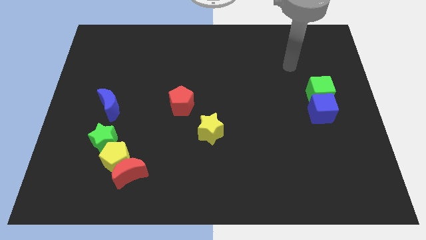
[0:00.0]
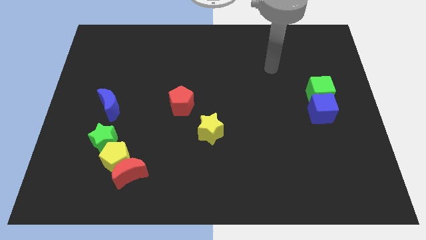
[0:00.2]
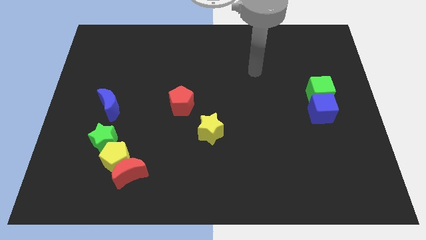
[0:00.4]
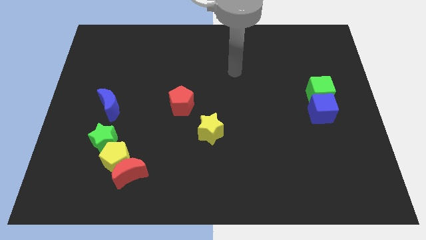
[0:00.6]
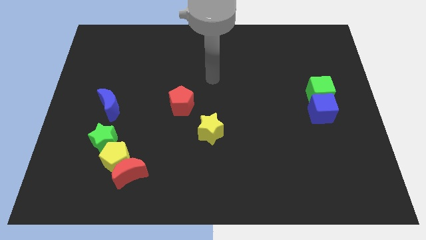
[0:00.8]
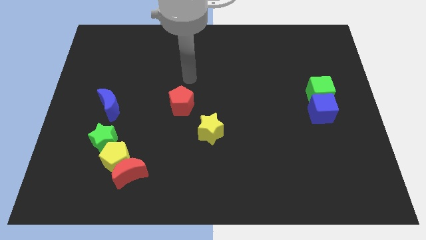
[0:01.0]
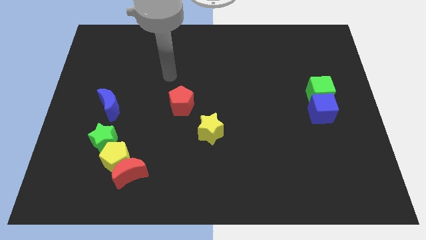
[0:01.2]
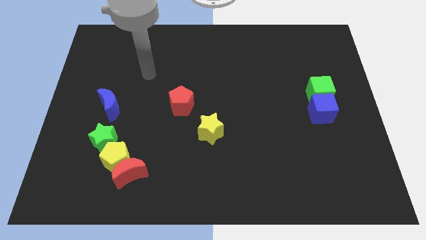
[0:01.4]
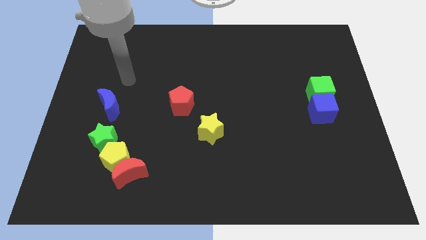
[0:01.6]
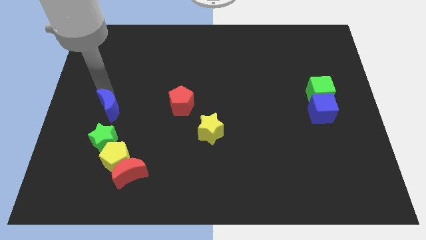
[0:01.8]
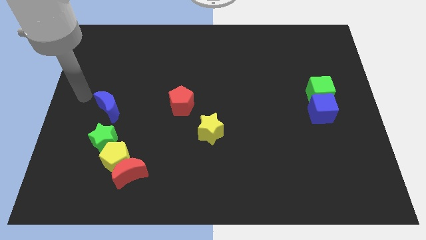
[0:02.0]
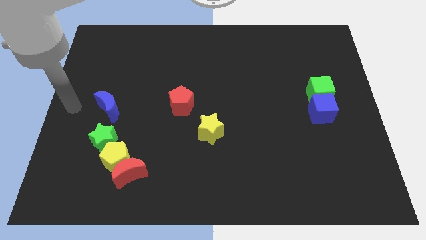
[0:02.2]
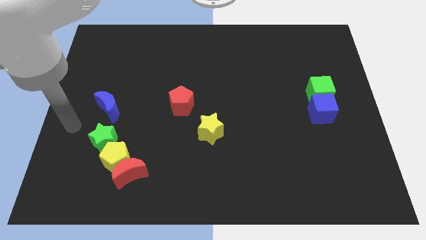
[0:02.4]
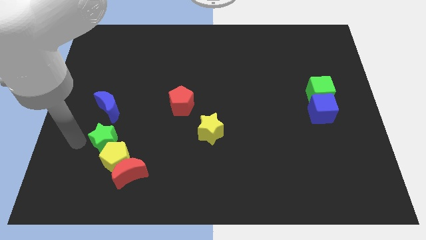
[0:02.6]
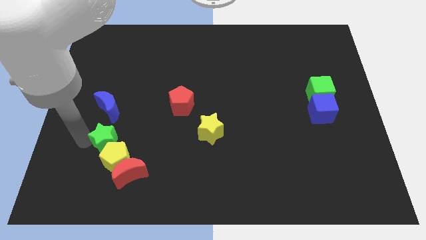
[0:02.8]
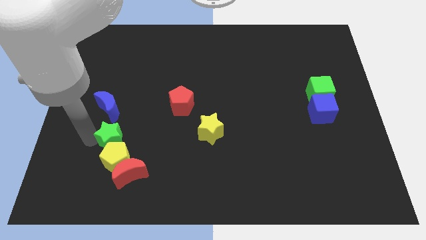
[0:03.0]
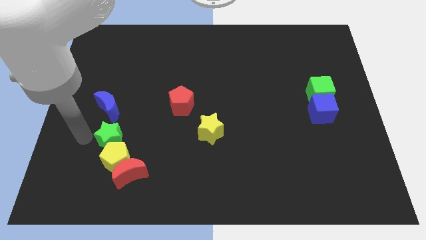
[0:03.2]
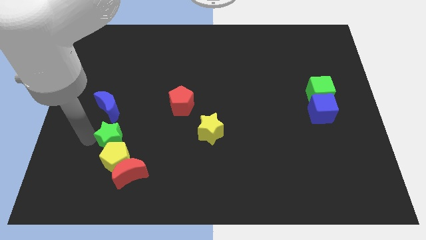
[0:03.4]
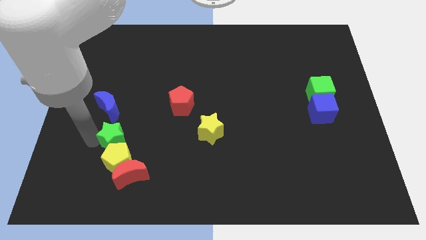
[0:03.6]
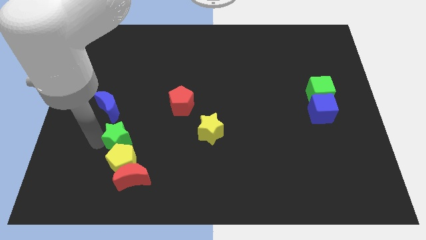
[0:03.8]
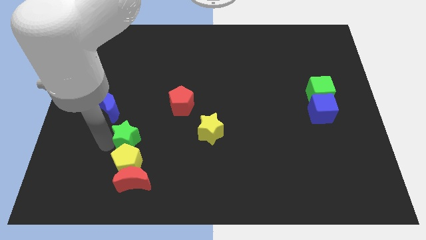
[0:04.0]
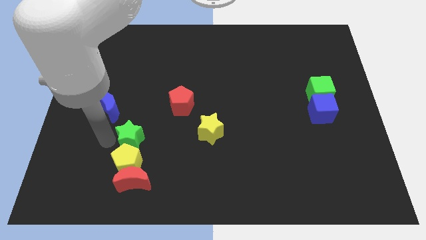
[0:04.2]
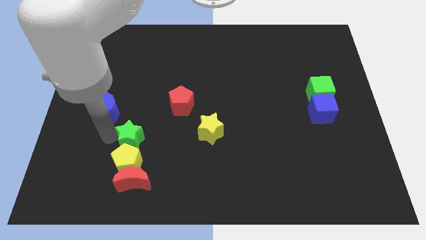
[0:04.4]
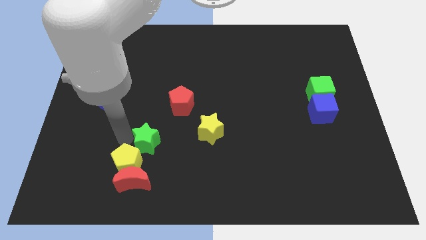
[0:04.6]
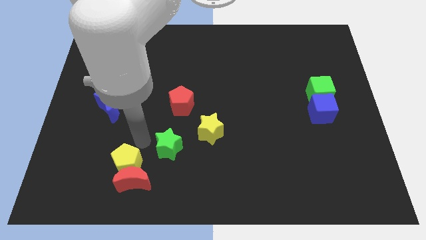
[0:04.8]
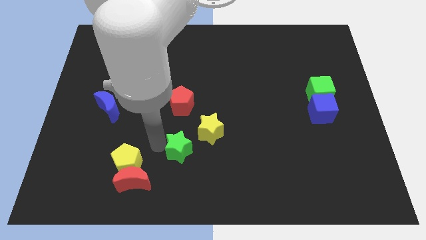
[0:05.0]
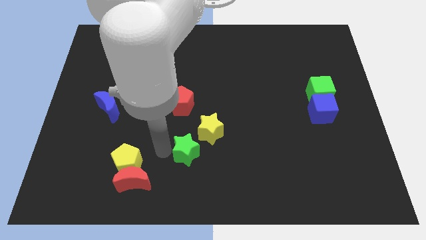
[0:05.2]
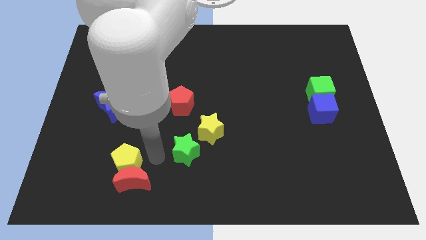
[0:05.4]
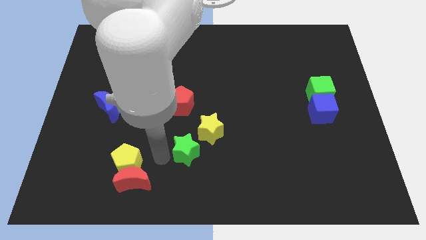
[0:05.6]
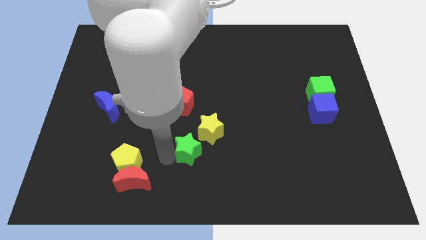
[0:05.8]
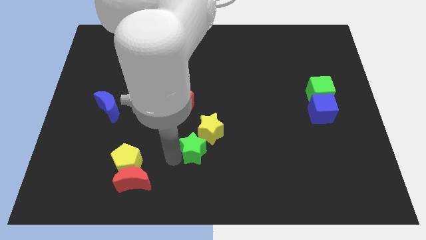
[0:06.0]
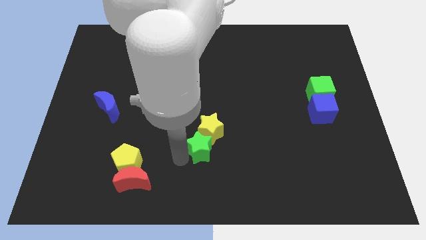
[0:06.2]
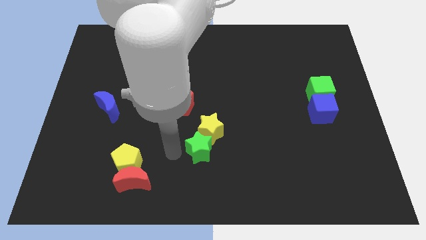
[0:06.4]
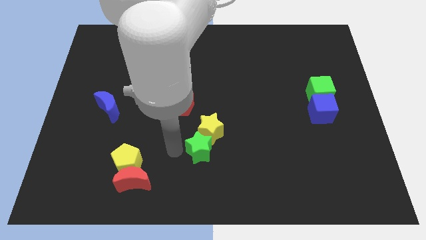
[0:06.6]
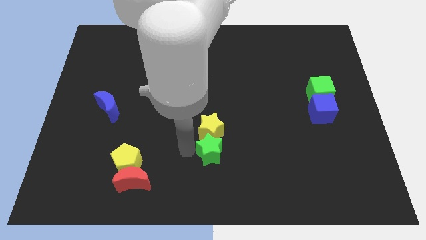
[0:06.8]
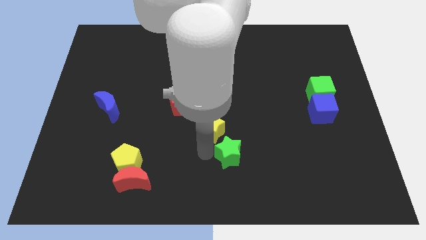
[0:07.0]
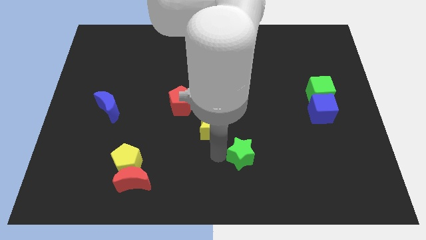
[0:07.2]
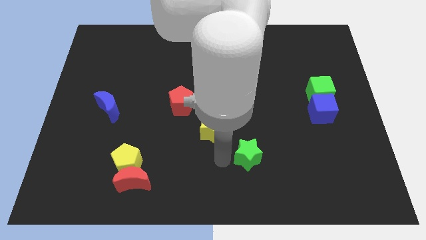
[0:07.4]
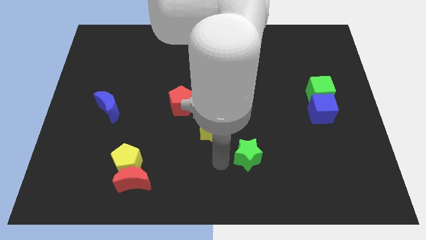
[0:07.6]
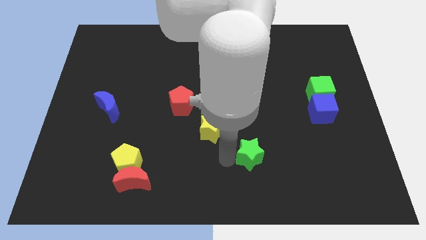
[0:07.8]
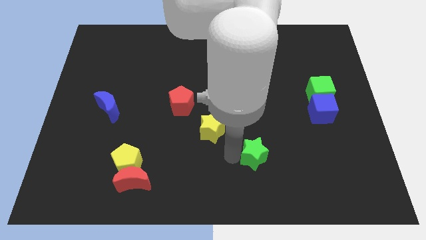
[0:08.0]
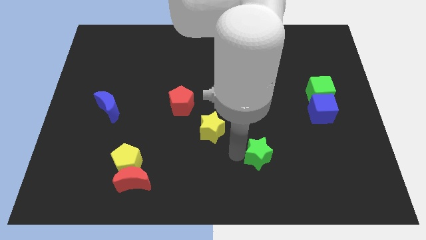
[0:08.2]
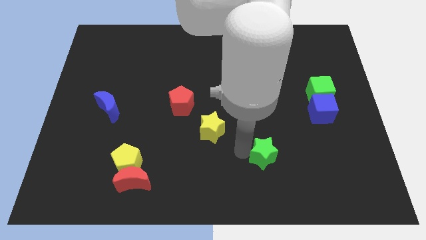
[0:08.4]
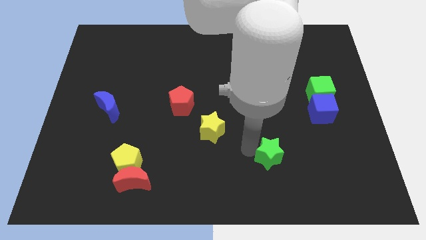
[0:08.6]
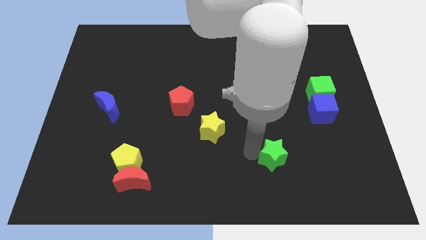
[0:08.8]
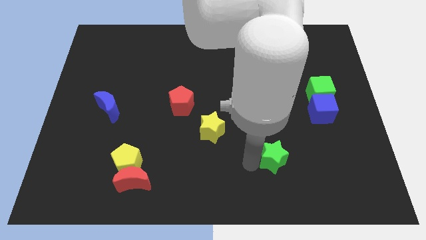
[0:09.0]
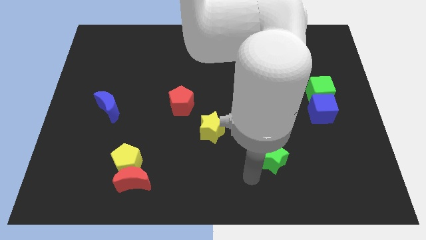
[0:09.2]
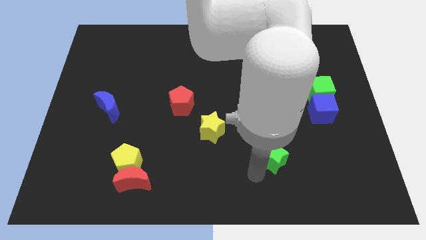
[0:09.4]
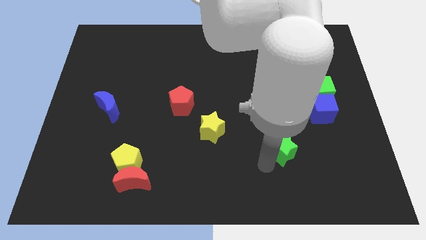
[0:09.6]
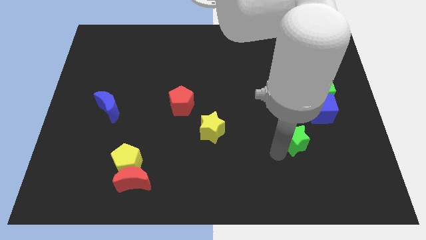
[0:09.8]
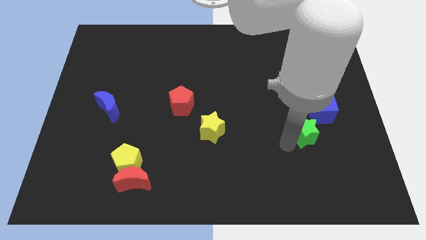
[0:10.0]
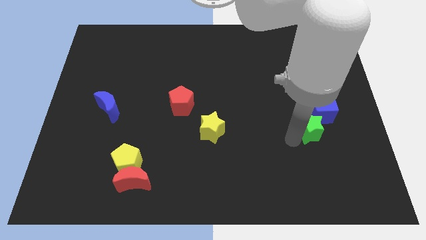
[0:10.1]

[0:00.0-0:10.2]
slide the green star to the bottom side of the green cube

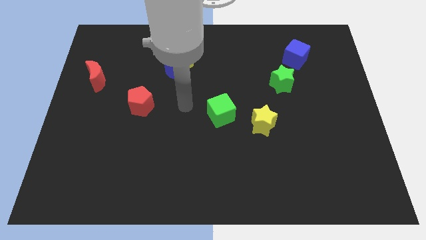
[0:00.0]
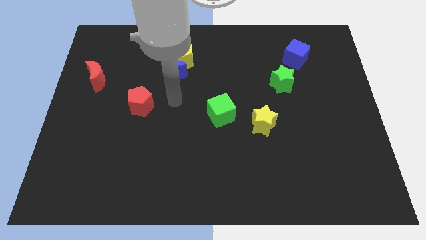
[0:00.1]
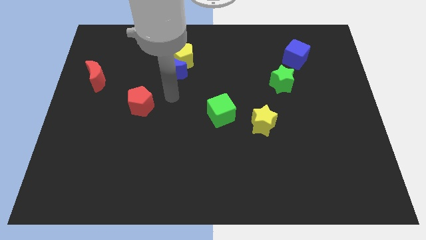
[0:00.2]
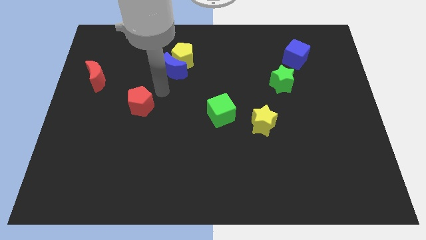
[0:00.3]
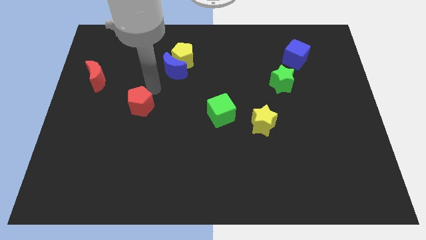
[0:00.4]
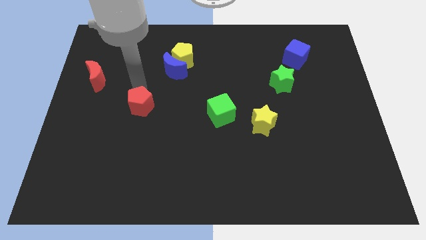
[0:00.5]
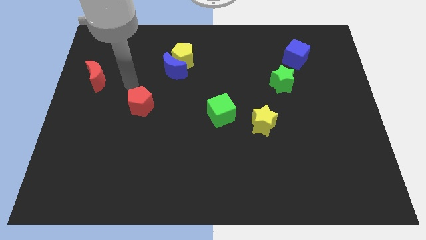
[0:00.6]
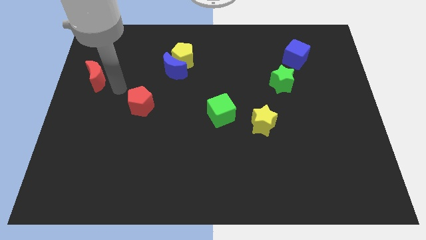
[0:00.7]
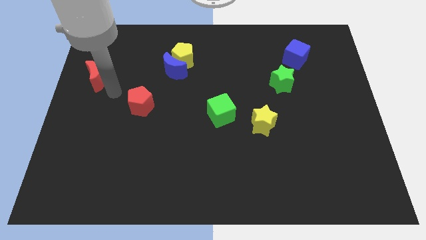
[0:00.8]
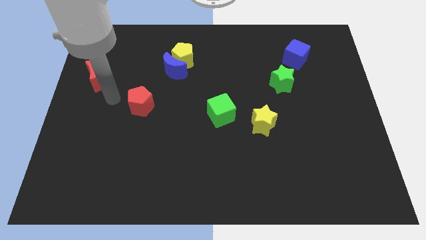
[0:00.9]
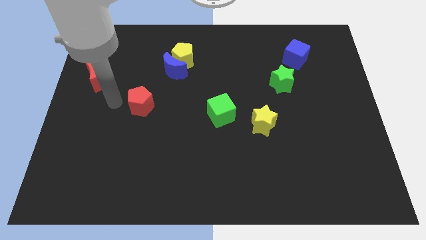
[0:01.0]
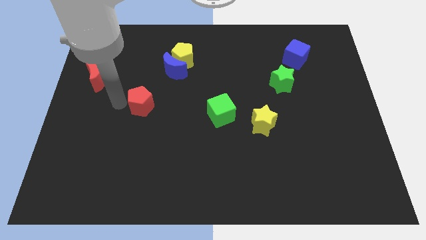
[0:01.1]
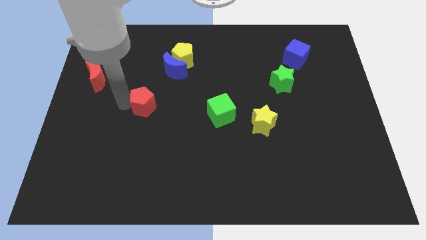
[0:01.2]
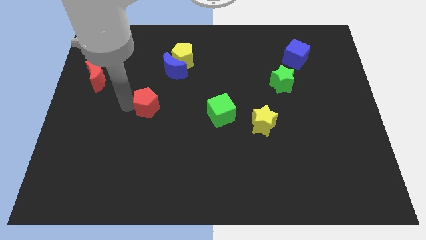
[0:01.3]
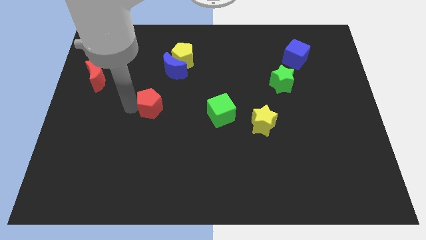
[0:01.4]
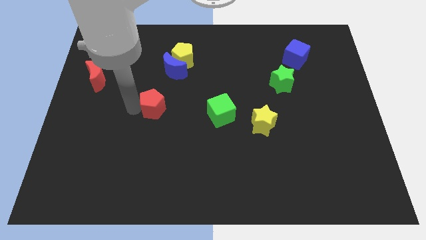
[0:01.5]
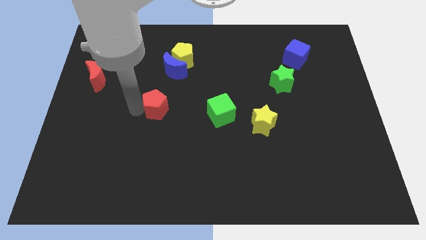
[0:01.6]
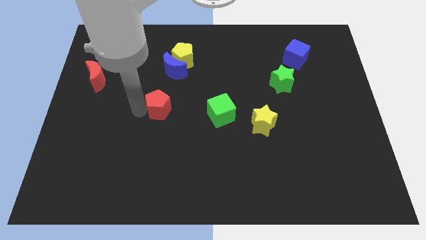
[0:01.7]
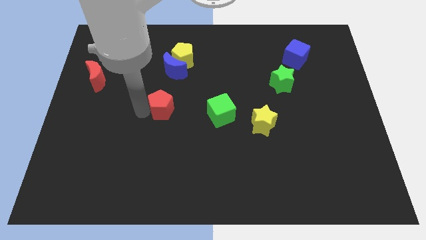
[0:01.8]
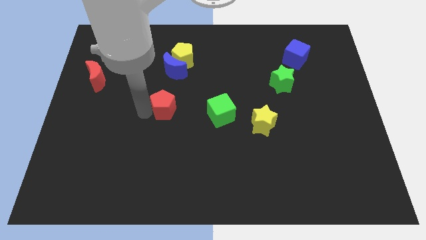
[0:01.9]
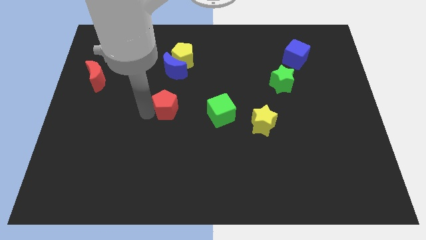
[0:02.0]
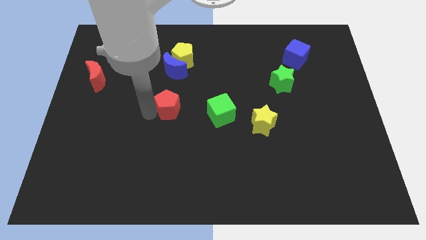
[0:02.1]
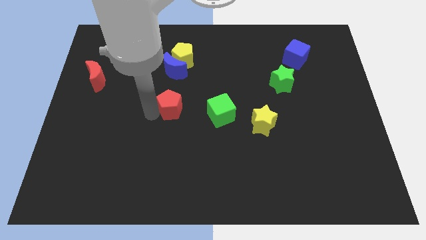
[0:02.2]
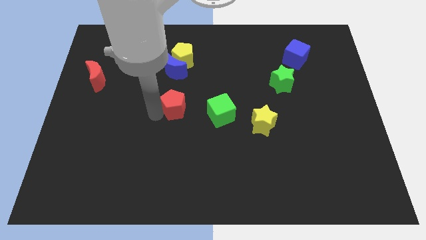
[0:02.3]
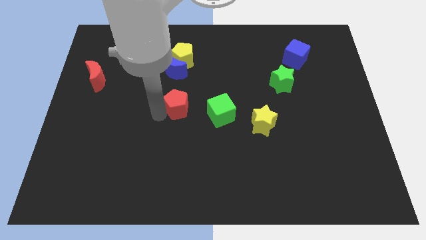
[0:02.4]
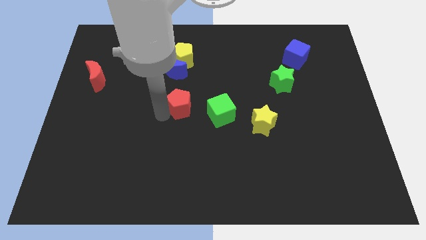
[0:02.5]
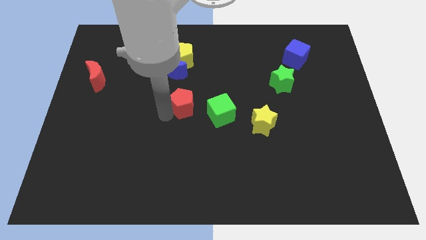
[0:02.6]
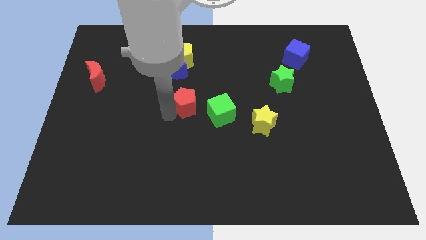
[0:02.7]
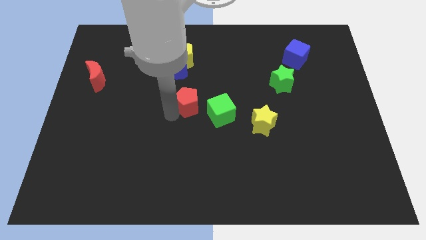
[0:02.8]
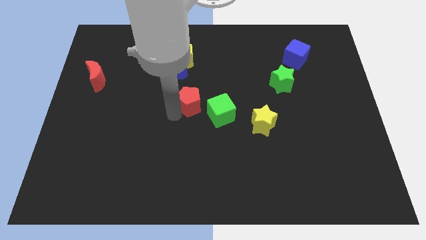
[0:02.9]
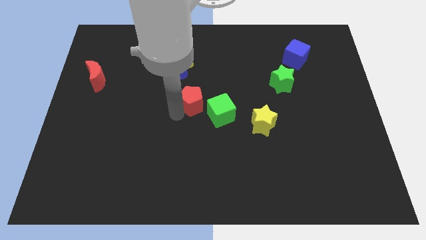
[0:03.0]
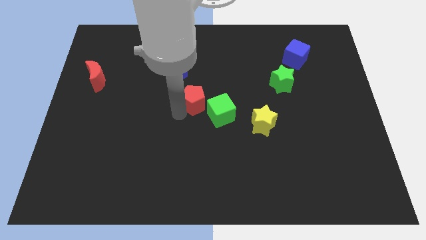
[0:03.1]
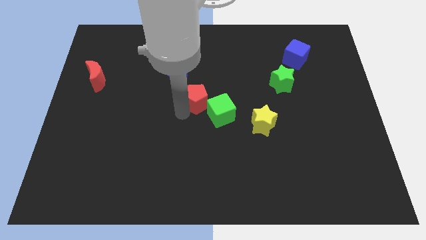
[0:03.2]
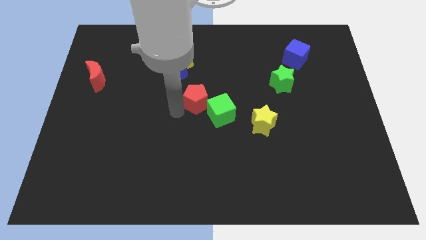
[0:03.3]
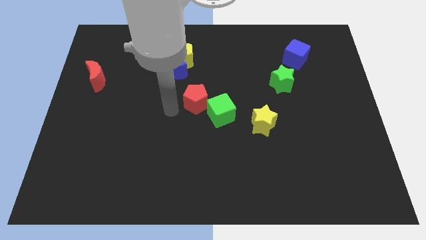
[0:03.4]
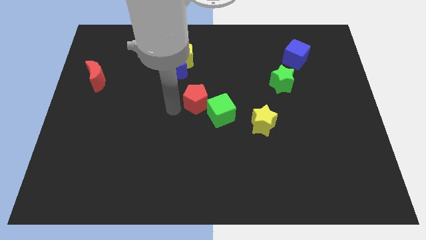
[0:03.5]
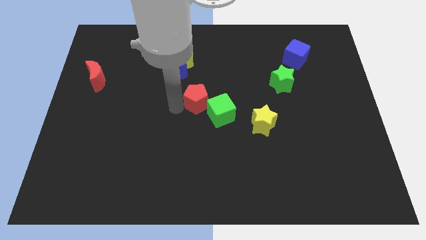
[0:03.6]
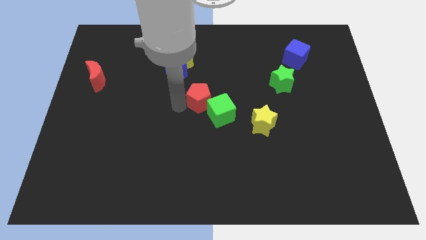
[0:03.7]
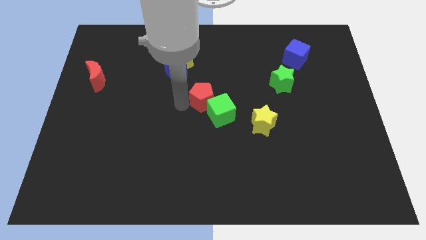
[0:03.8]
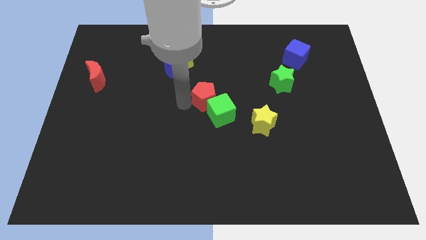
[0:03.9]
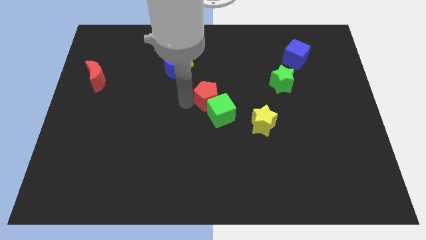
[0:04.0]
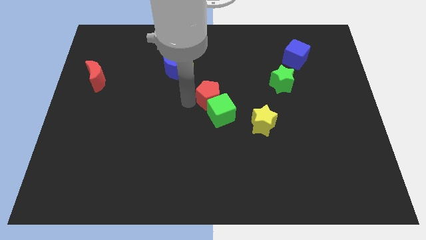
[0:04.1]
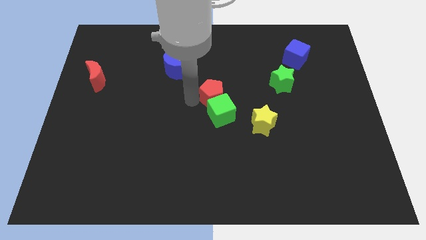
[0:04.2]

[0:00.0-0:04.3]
push the red pentagon to the top right of the green cube
